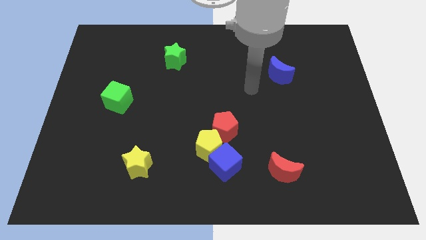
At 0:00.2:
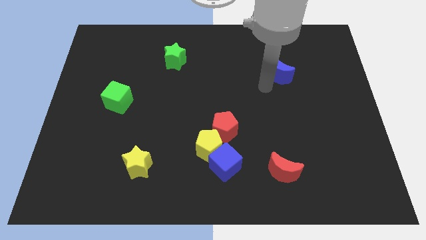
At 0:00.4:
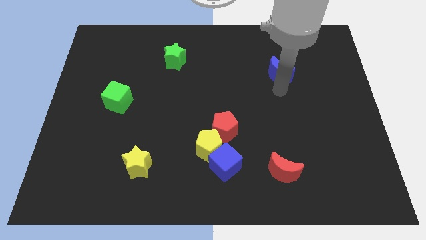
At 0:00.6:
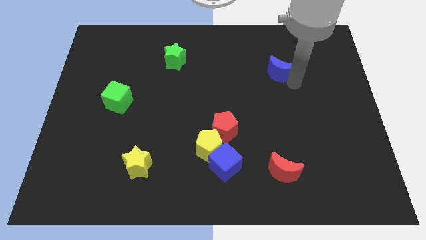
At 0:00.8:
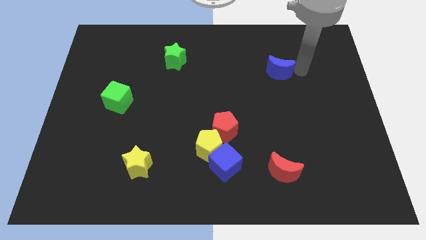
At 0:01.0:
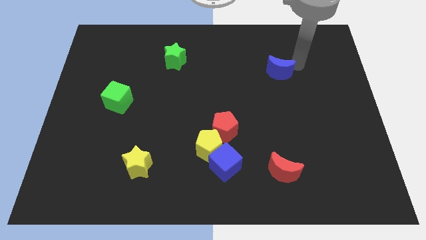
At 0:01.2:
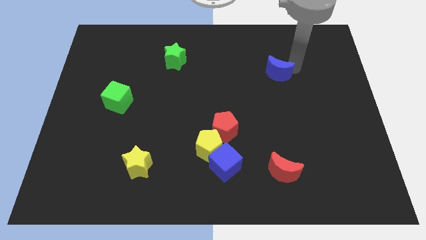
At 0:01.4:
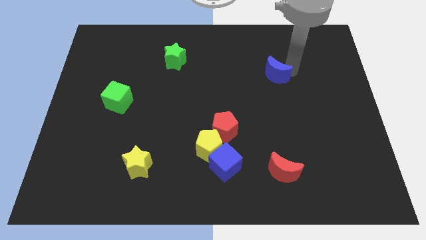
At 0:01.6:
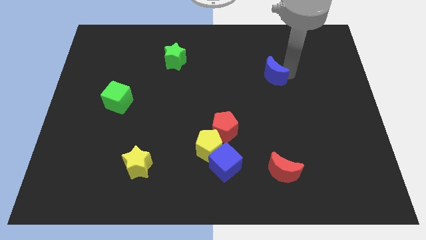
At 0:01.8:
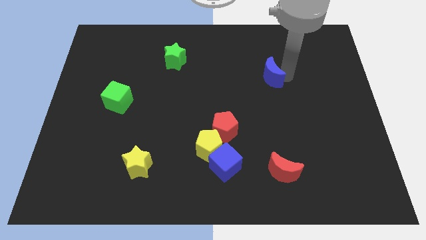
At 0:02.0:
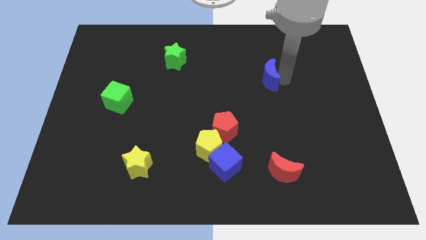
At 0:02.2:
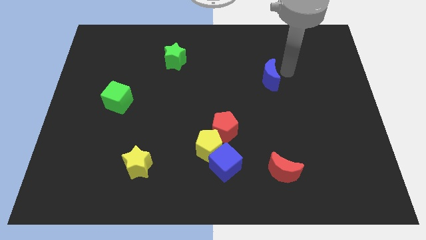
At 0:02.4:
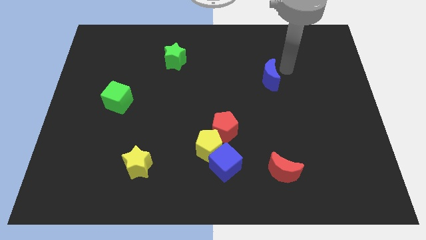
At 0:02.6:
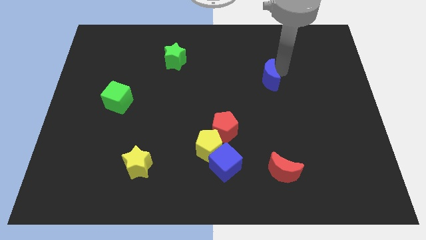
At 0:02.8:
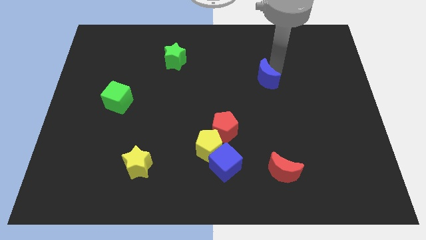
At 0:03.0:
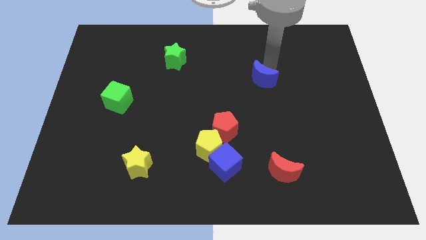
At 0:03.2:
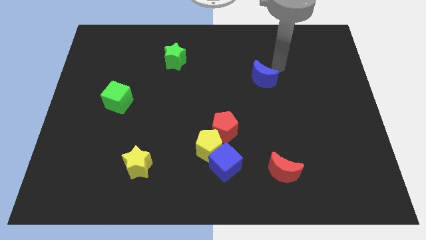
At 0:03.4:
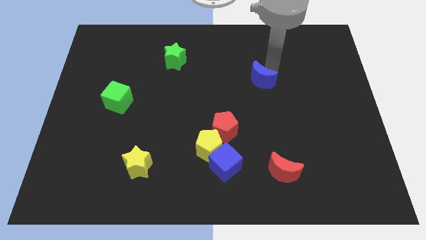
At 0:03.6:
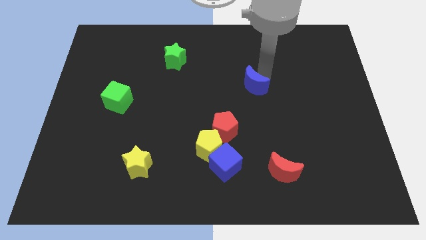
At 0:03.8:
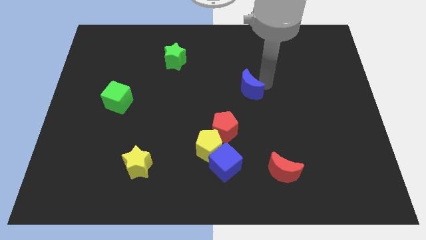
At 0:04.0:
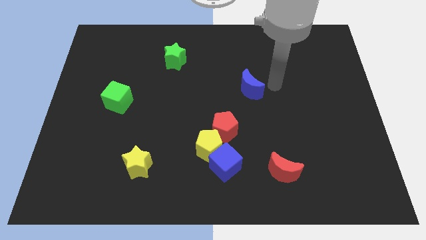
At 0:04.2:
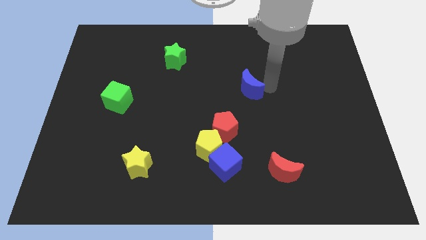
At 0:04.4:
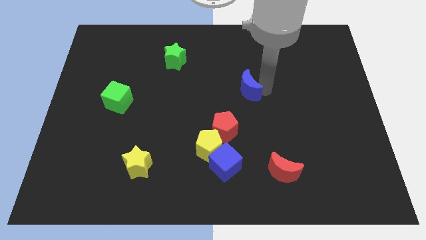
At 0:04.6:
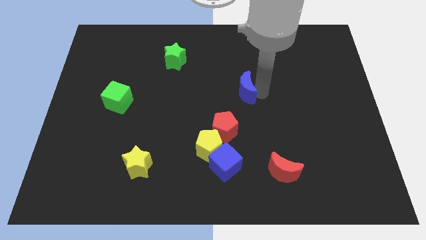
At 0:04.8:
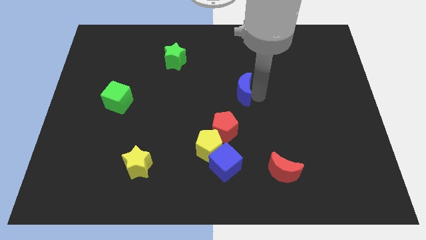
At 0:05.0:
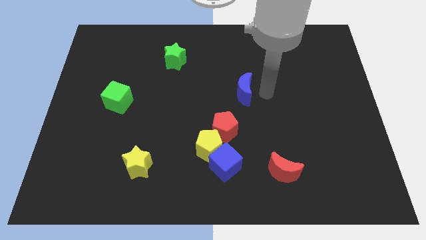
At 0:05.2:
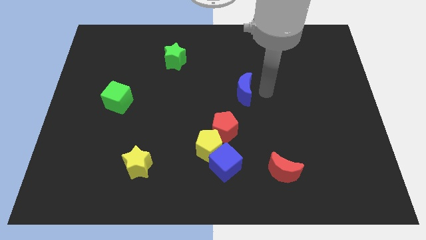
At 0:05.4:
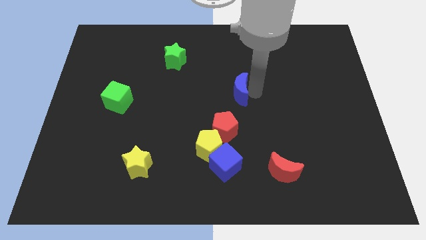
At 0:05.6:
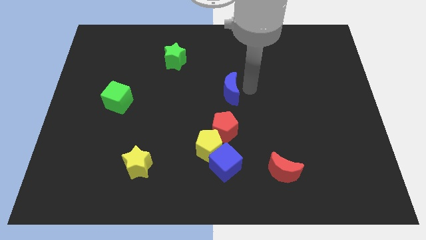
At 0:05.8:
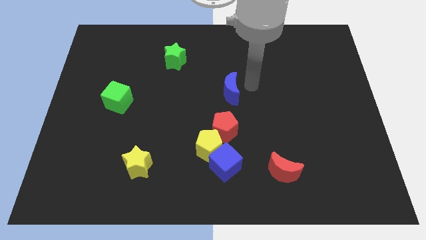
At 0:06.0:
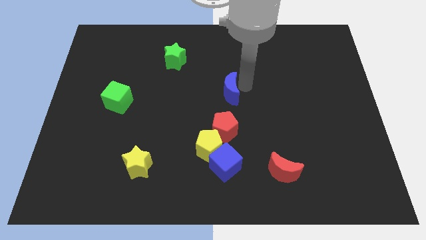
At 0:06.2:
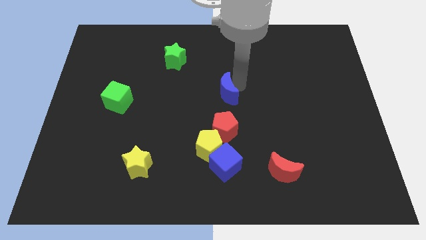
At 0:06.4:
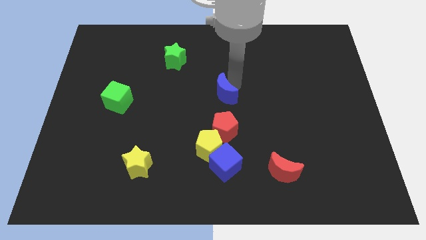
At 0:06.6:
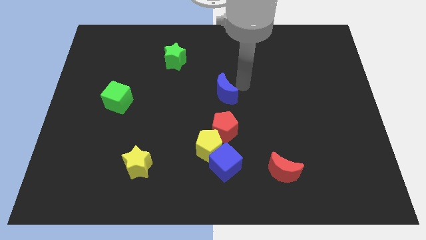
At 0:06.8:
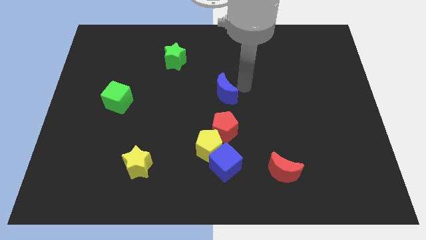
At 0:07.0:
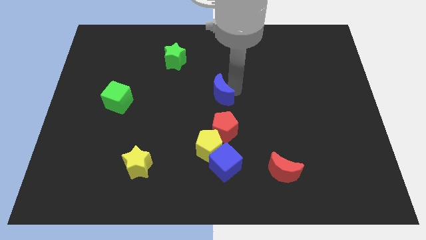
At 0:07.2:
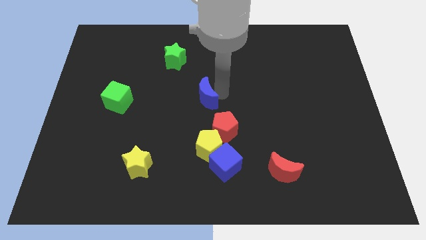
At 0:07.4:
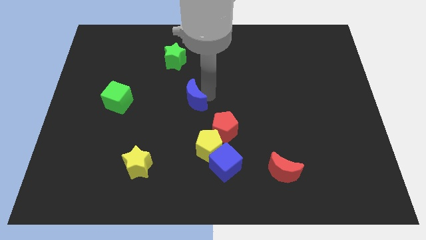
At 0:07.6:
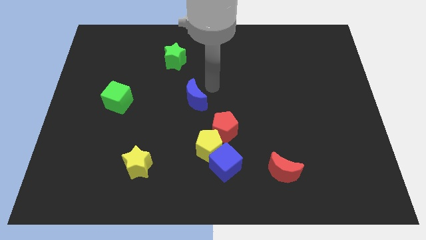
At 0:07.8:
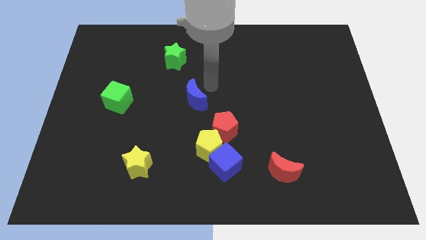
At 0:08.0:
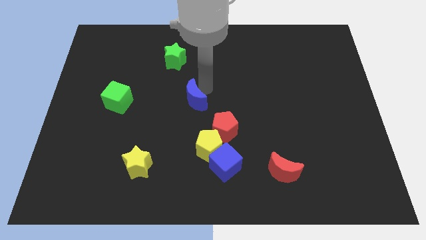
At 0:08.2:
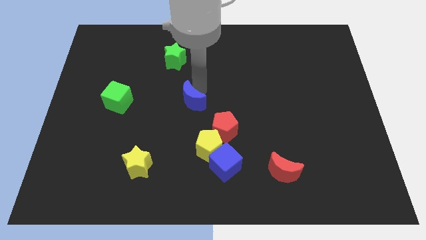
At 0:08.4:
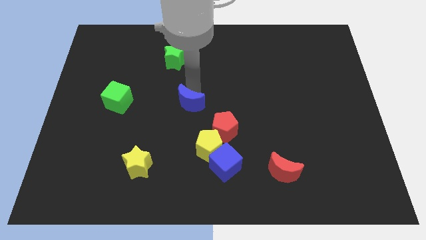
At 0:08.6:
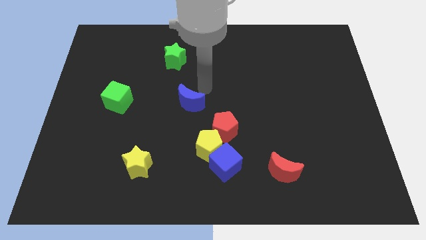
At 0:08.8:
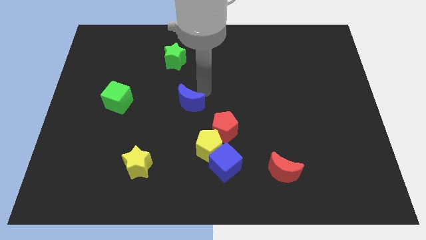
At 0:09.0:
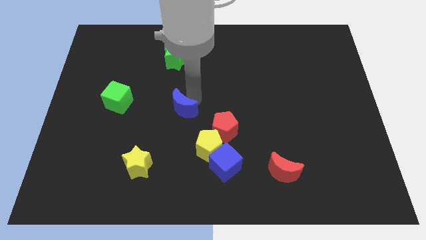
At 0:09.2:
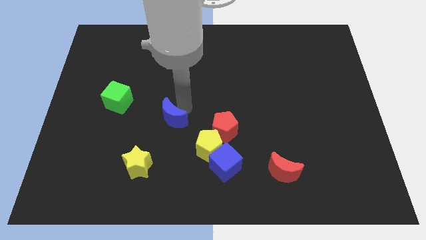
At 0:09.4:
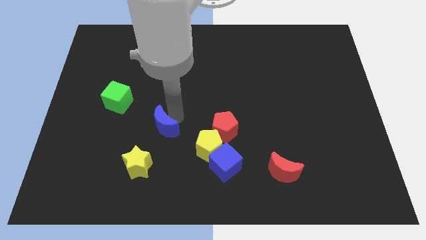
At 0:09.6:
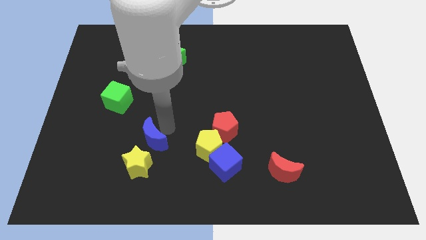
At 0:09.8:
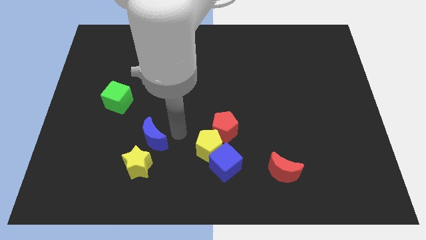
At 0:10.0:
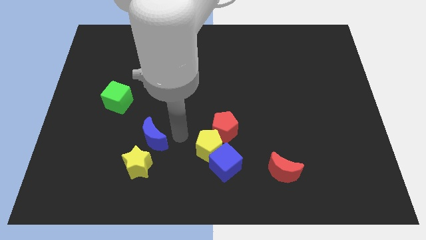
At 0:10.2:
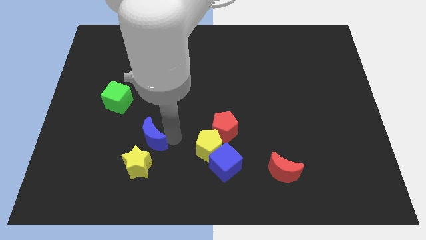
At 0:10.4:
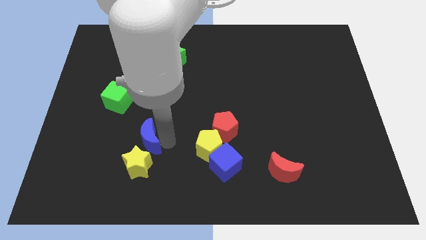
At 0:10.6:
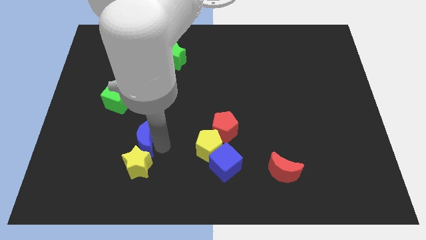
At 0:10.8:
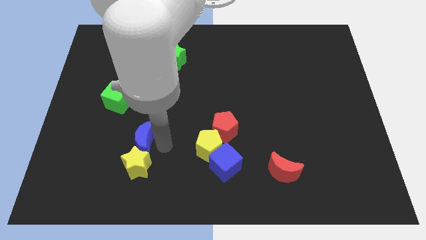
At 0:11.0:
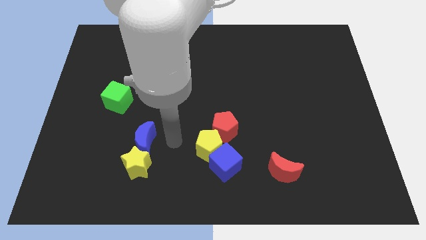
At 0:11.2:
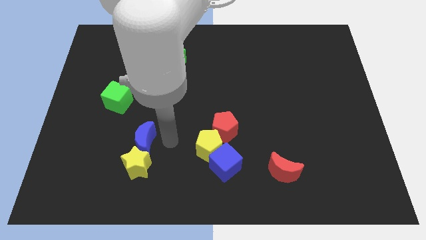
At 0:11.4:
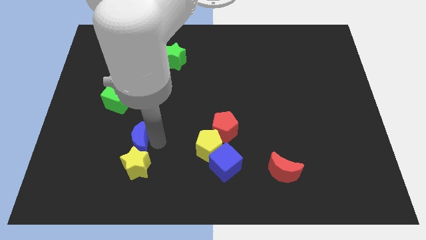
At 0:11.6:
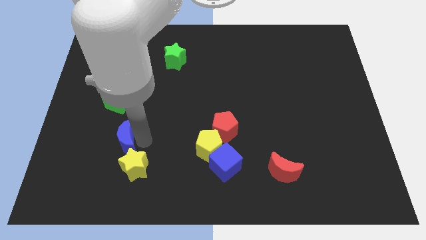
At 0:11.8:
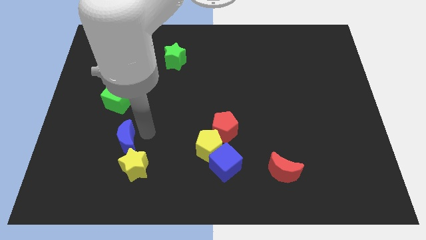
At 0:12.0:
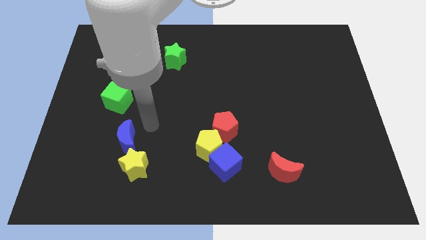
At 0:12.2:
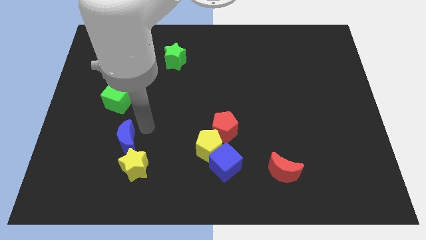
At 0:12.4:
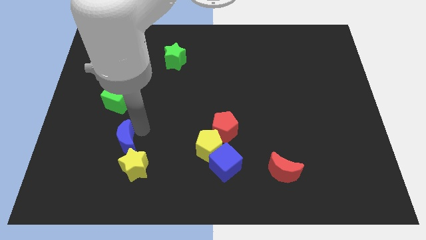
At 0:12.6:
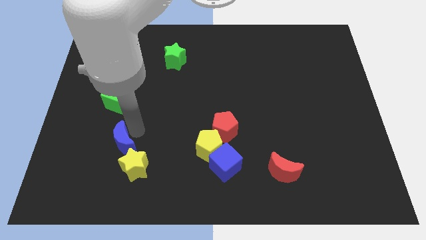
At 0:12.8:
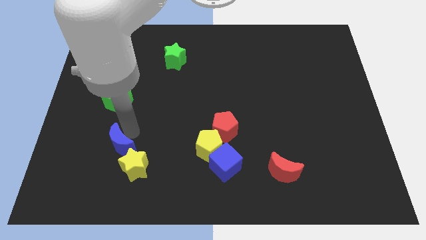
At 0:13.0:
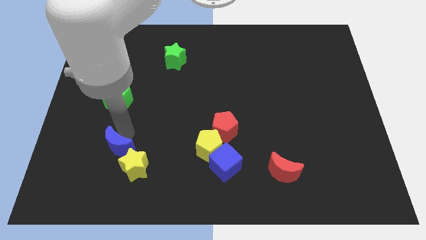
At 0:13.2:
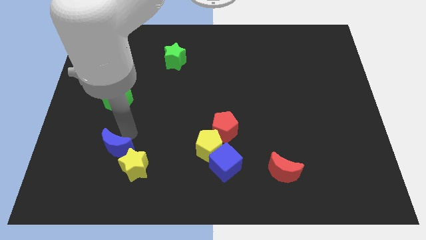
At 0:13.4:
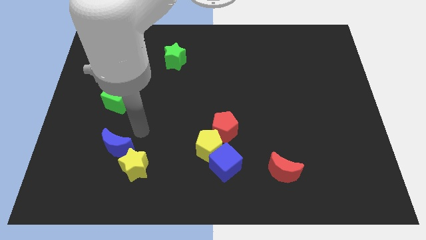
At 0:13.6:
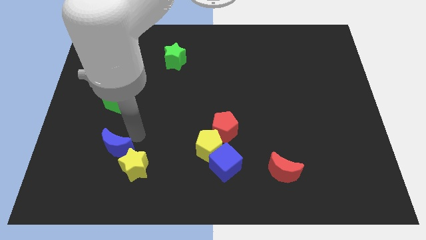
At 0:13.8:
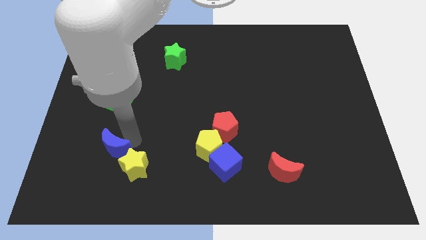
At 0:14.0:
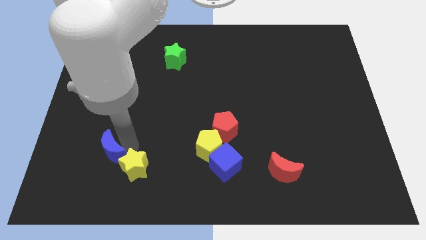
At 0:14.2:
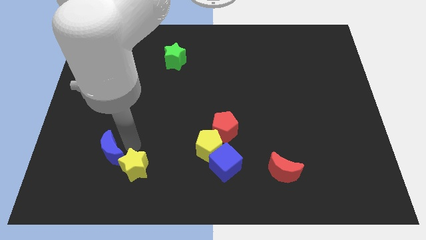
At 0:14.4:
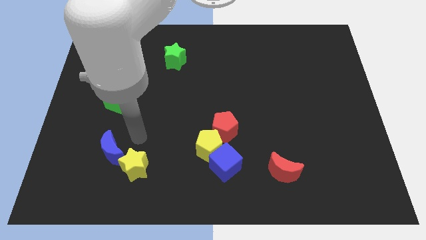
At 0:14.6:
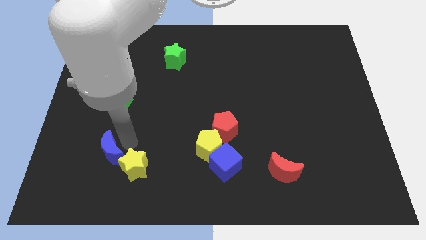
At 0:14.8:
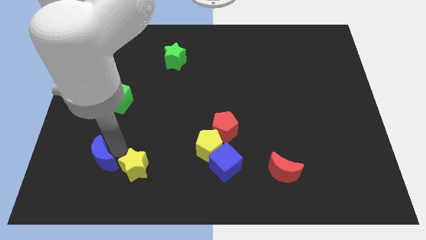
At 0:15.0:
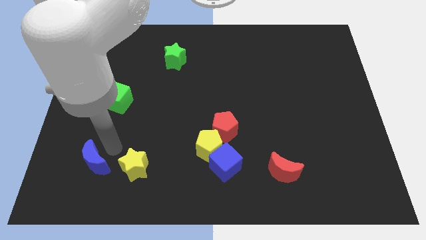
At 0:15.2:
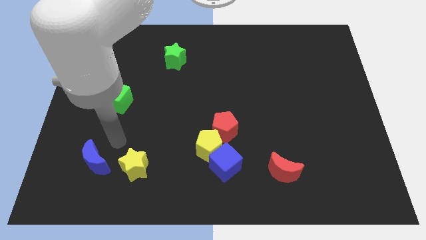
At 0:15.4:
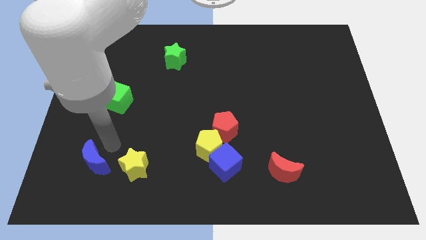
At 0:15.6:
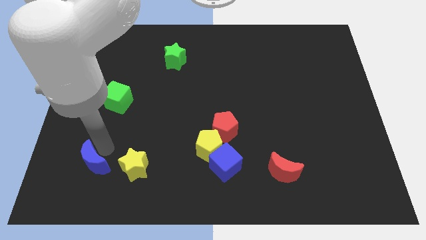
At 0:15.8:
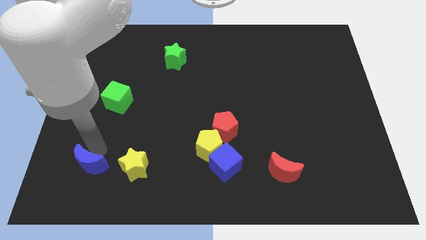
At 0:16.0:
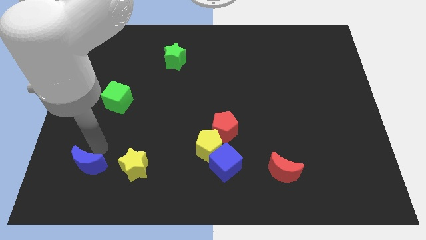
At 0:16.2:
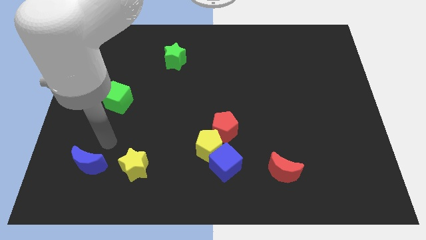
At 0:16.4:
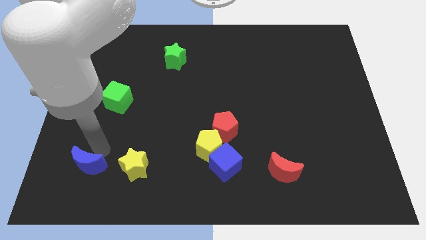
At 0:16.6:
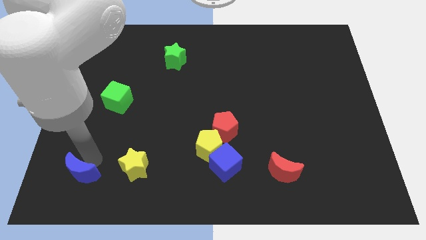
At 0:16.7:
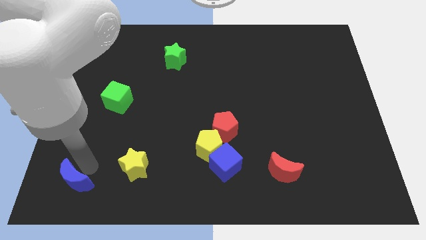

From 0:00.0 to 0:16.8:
put the blue moon to the bottom left
